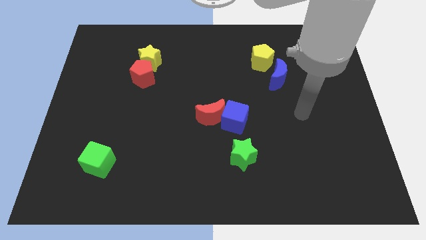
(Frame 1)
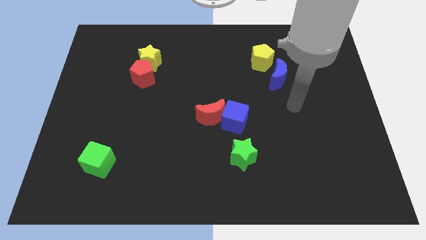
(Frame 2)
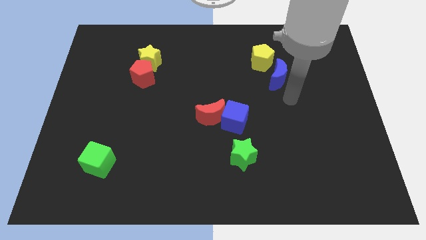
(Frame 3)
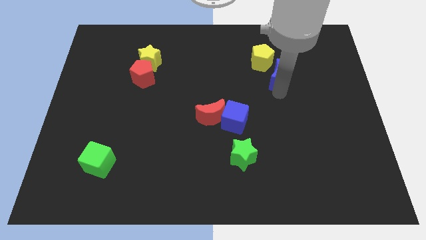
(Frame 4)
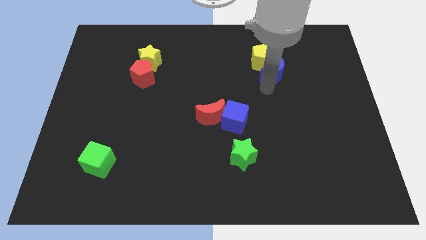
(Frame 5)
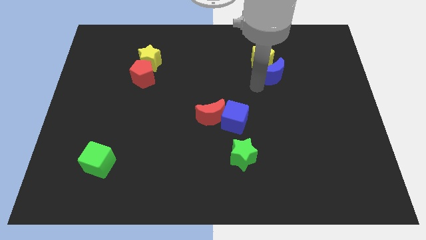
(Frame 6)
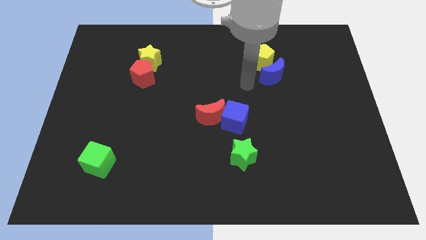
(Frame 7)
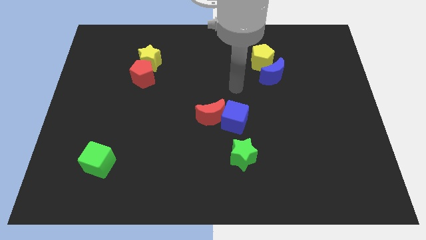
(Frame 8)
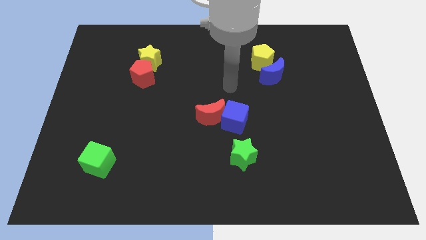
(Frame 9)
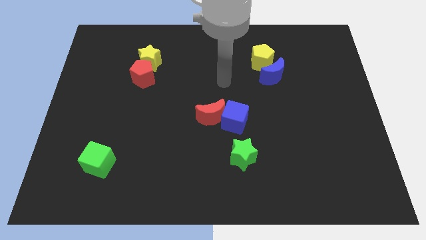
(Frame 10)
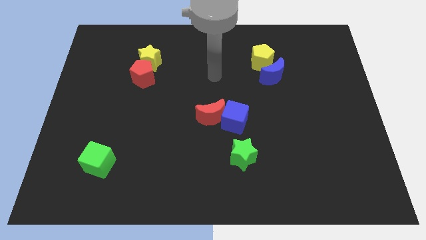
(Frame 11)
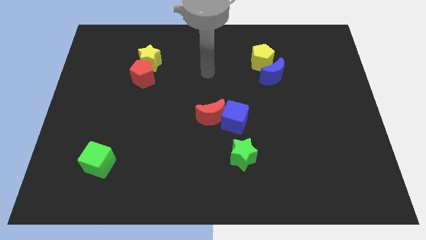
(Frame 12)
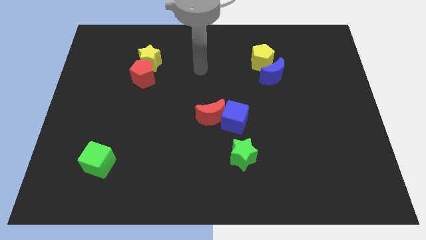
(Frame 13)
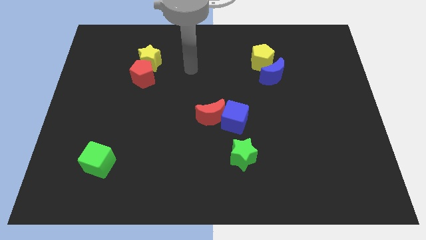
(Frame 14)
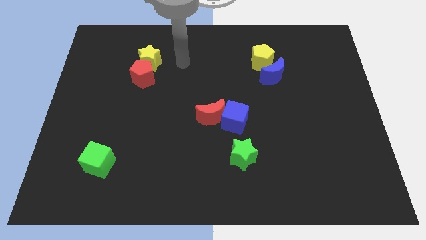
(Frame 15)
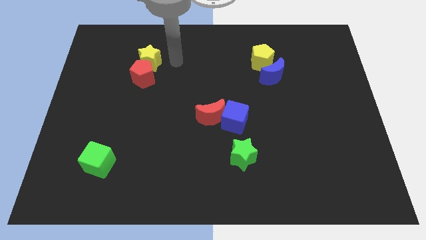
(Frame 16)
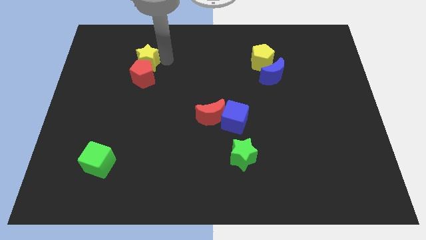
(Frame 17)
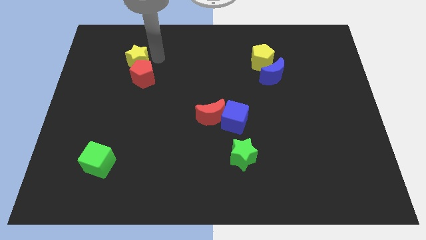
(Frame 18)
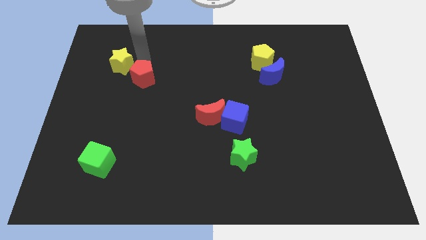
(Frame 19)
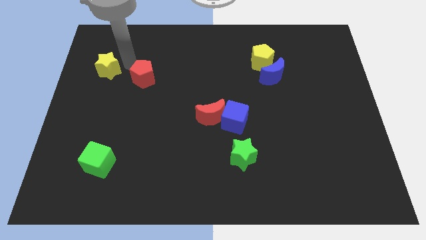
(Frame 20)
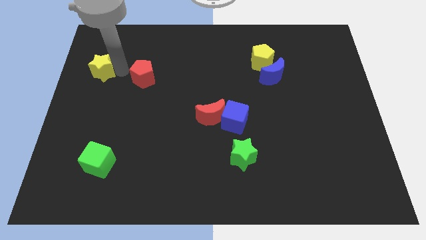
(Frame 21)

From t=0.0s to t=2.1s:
move the red pentagon away from the yellow star

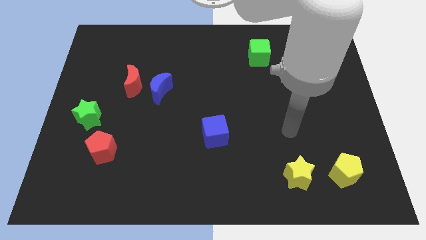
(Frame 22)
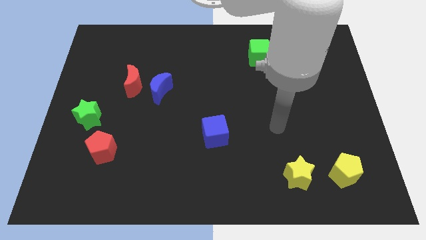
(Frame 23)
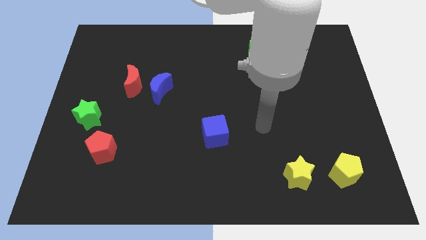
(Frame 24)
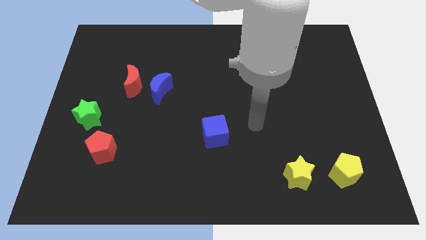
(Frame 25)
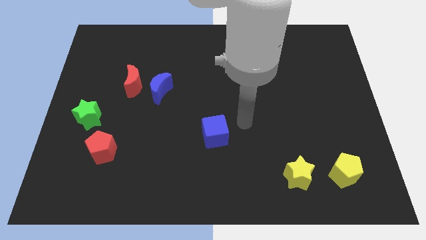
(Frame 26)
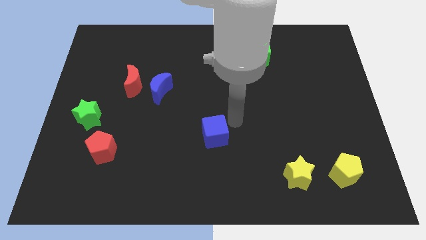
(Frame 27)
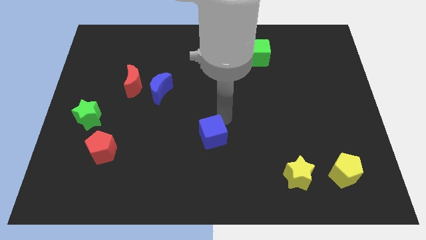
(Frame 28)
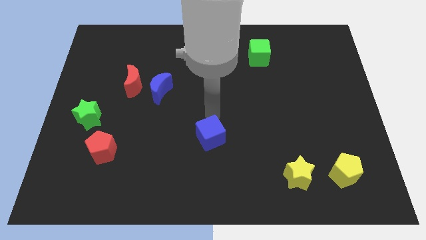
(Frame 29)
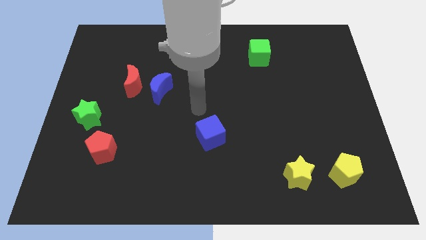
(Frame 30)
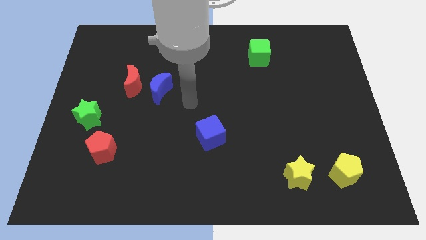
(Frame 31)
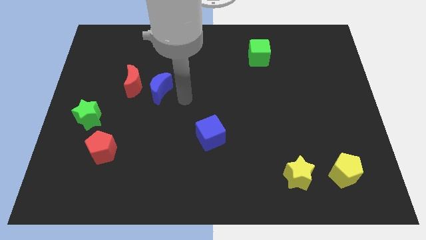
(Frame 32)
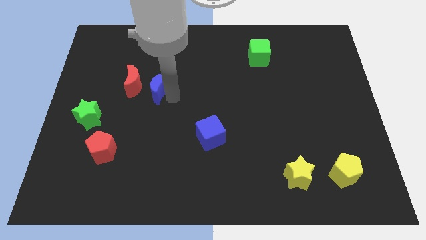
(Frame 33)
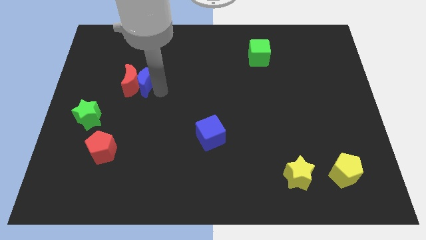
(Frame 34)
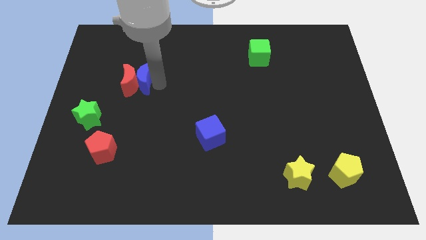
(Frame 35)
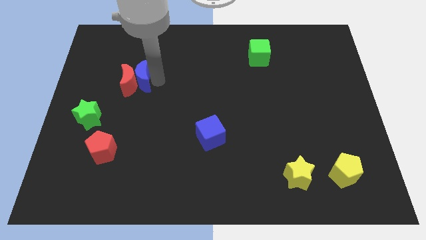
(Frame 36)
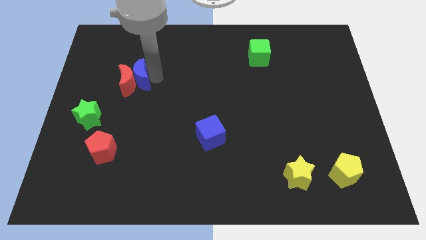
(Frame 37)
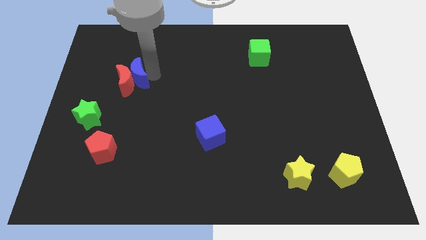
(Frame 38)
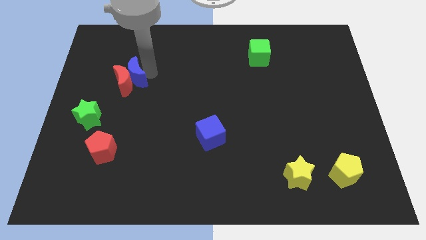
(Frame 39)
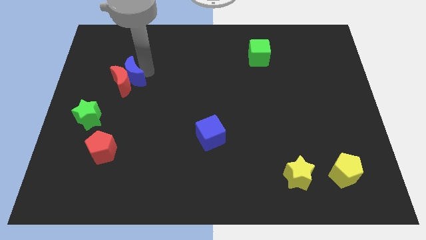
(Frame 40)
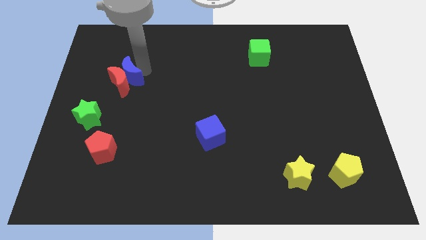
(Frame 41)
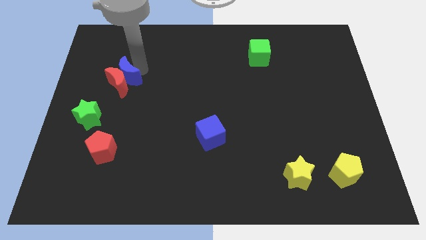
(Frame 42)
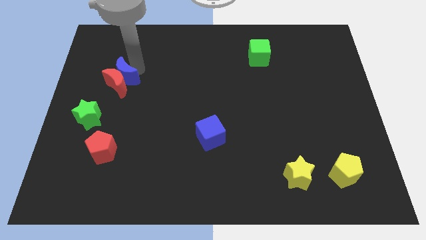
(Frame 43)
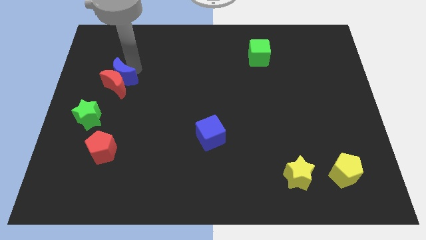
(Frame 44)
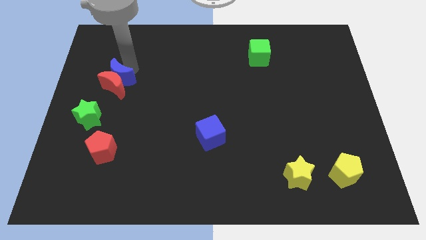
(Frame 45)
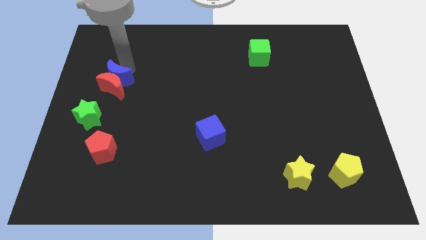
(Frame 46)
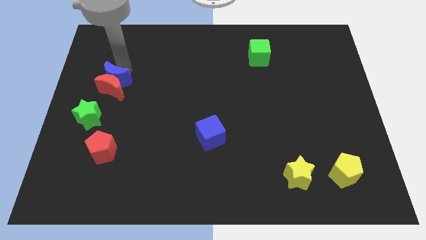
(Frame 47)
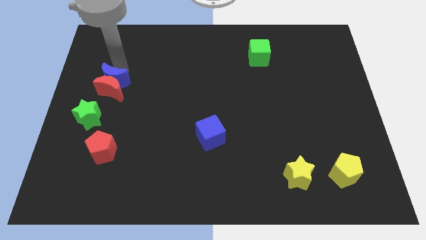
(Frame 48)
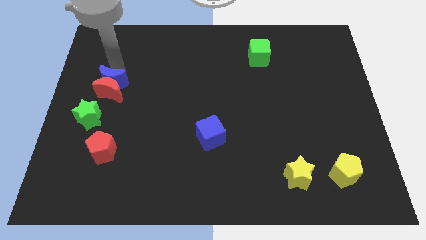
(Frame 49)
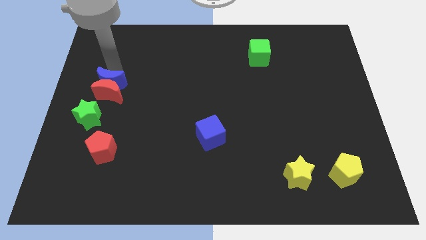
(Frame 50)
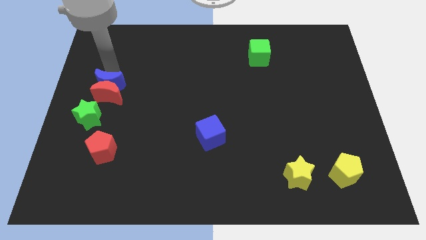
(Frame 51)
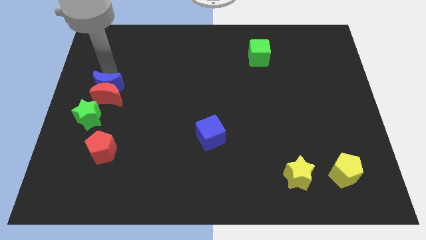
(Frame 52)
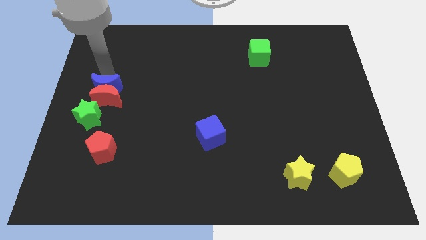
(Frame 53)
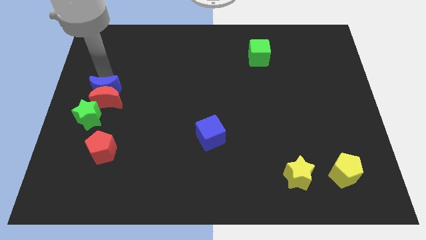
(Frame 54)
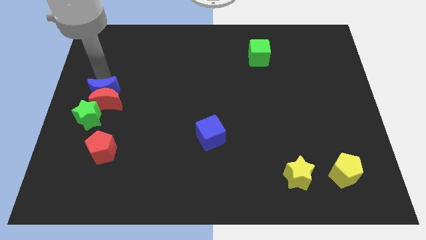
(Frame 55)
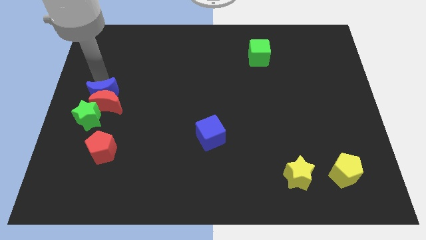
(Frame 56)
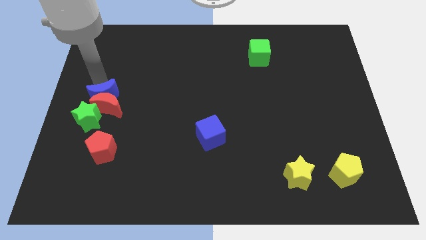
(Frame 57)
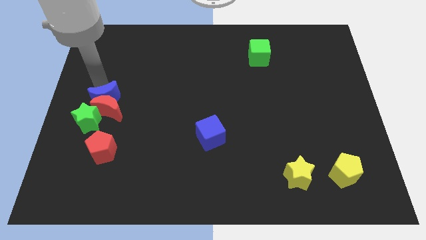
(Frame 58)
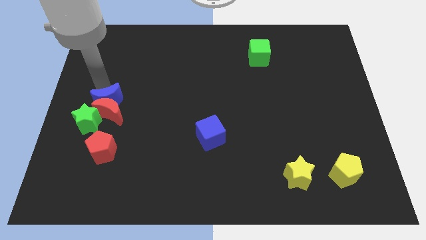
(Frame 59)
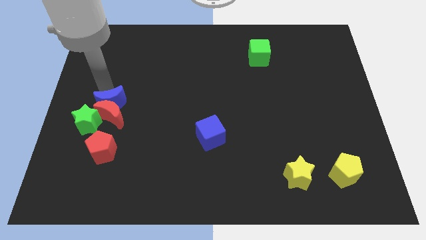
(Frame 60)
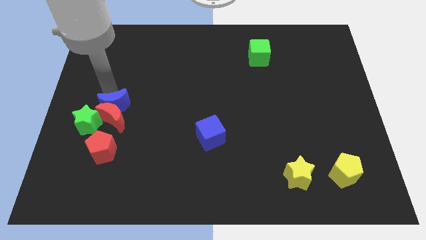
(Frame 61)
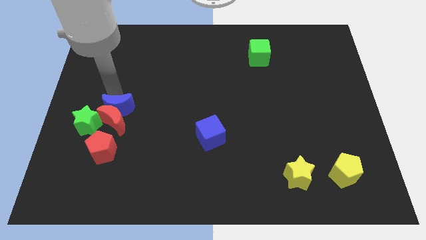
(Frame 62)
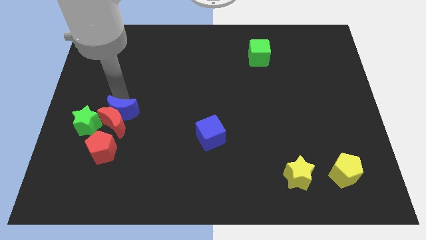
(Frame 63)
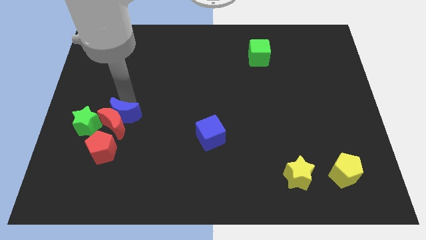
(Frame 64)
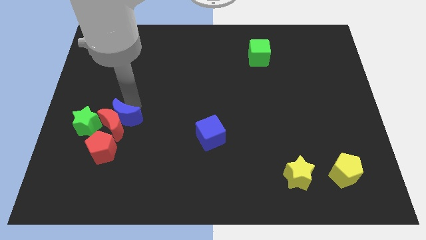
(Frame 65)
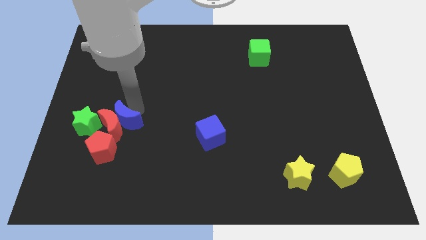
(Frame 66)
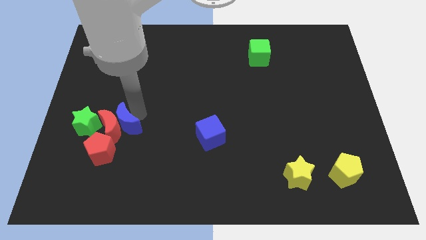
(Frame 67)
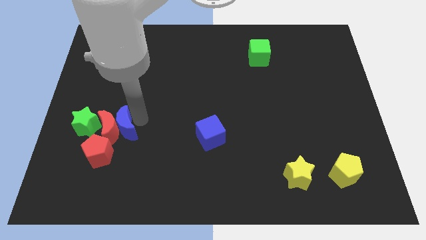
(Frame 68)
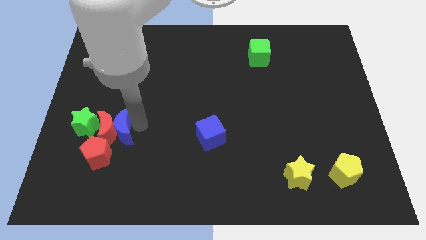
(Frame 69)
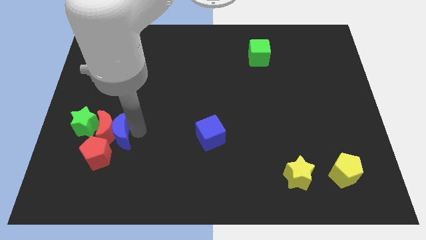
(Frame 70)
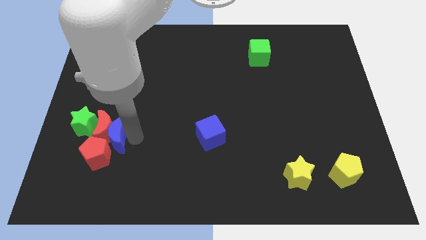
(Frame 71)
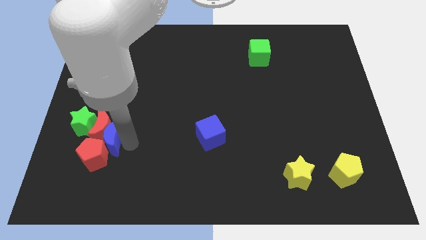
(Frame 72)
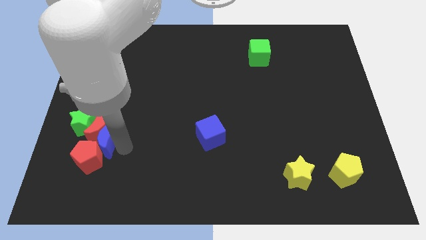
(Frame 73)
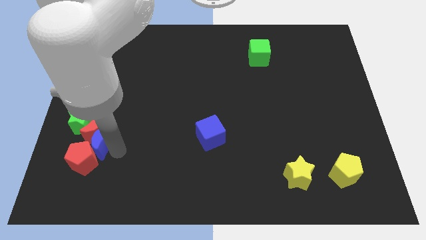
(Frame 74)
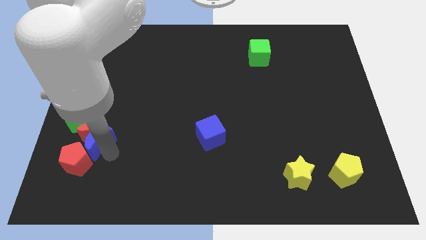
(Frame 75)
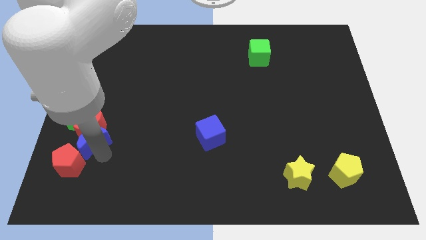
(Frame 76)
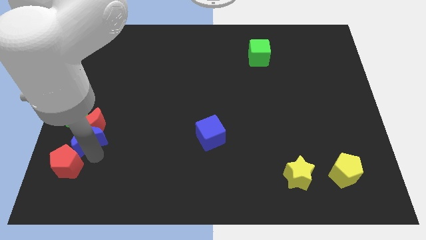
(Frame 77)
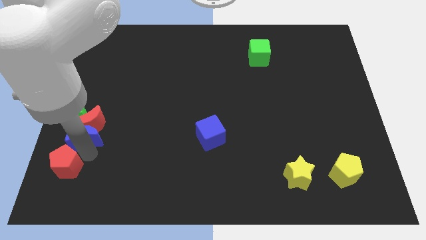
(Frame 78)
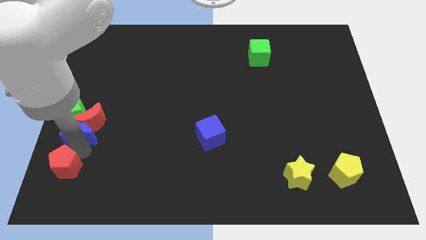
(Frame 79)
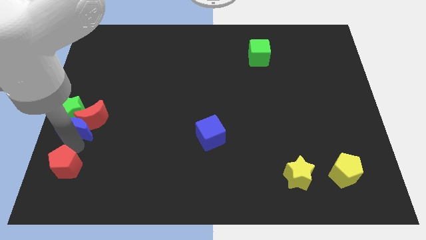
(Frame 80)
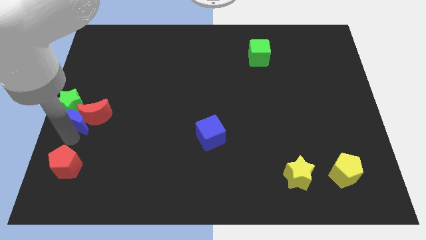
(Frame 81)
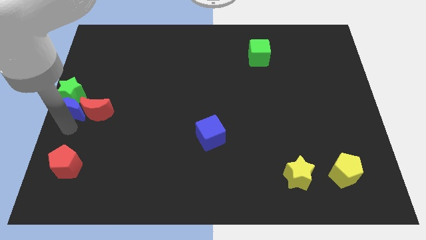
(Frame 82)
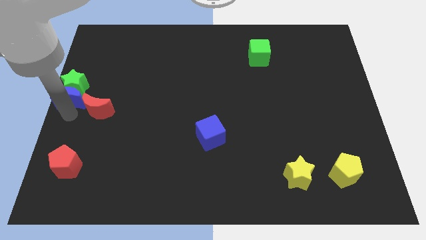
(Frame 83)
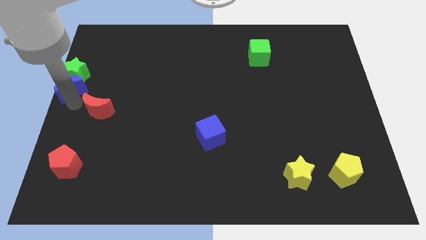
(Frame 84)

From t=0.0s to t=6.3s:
pull the red moon apart from the blue moon

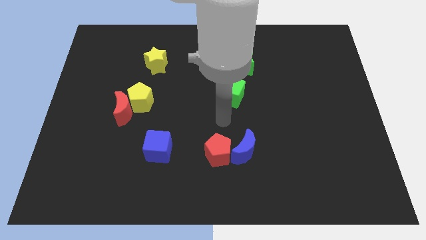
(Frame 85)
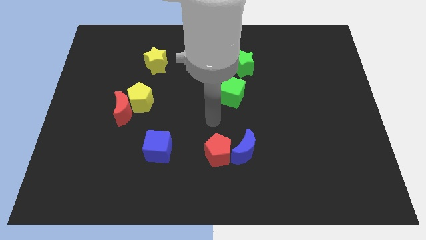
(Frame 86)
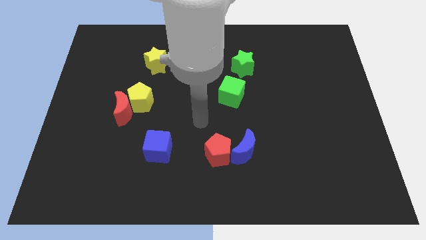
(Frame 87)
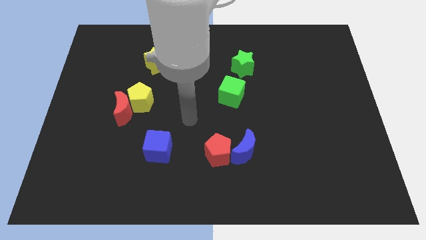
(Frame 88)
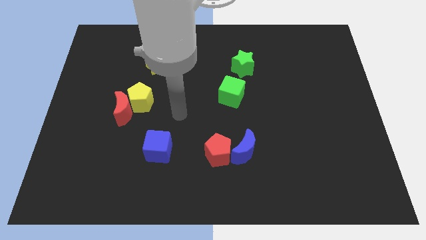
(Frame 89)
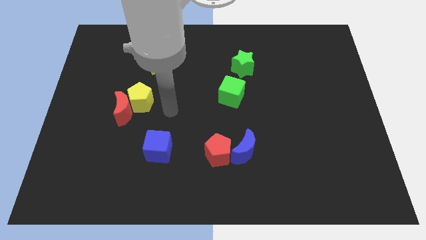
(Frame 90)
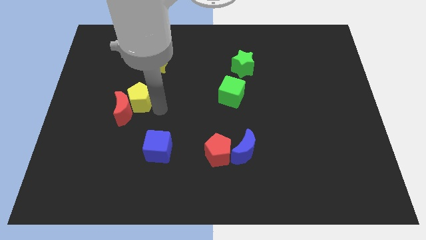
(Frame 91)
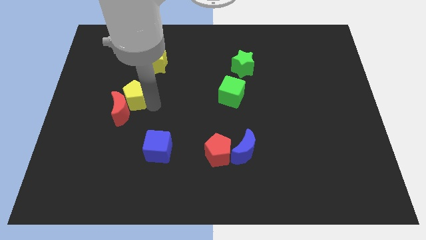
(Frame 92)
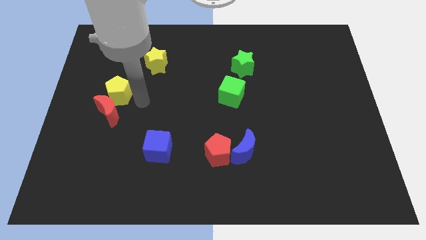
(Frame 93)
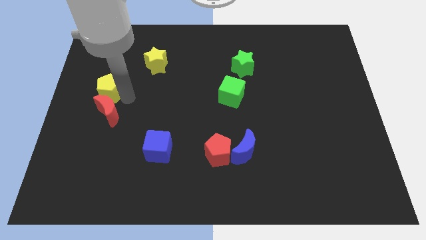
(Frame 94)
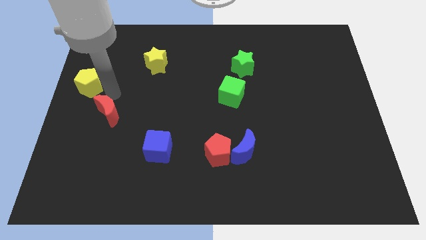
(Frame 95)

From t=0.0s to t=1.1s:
separate the red moon from the yellow pentagon
